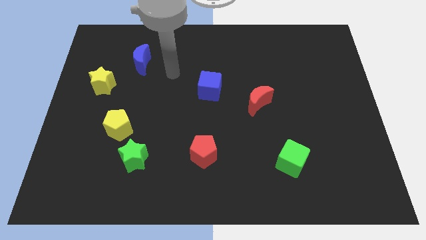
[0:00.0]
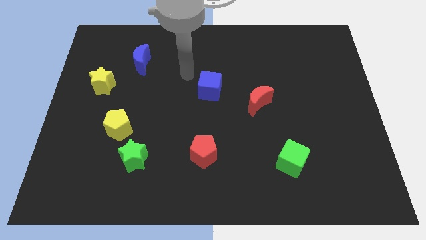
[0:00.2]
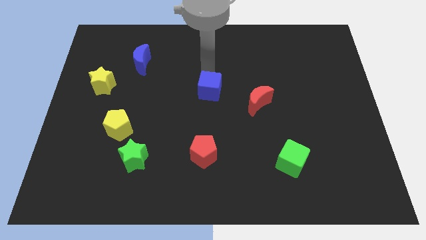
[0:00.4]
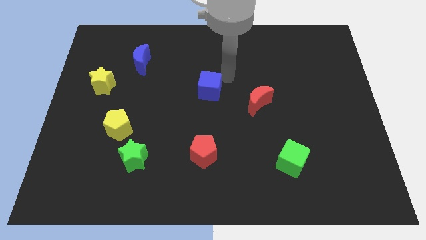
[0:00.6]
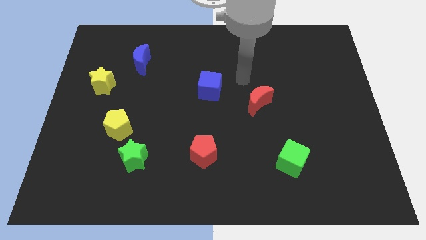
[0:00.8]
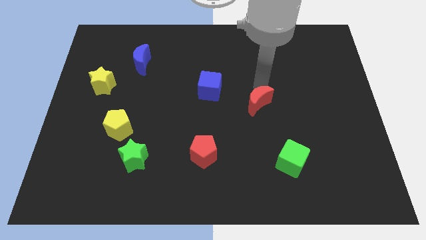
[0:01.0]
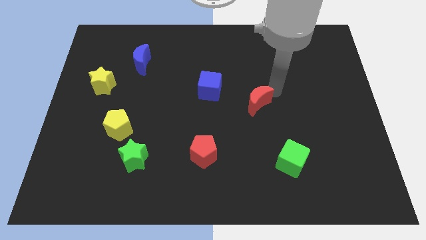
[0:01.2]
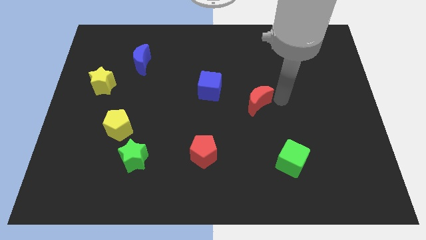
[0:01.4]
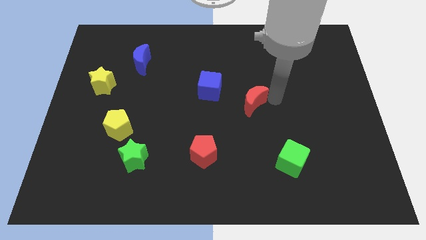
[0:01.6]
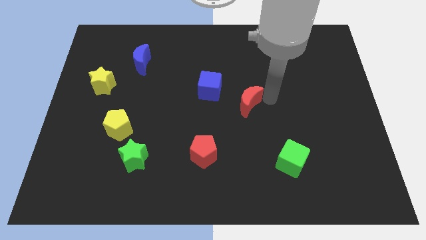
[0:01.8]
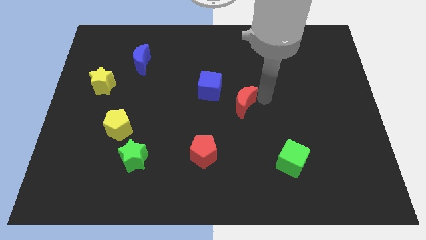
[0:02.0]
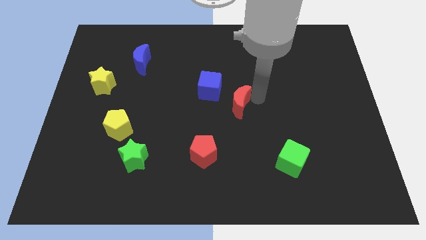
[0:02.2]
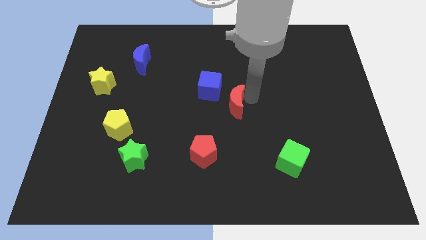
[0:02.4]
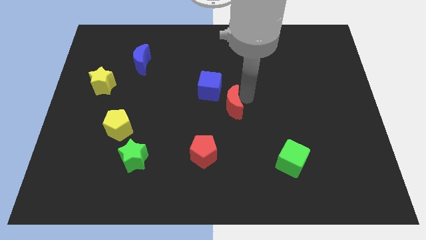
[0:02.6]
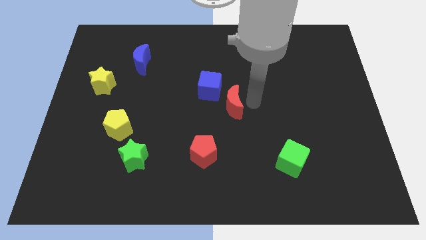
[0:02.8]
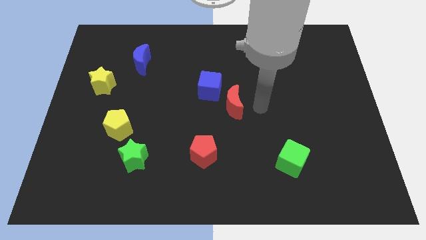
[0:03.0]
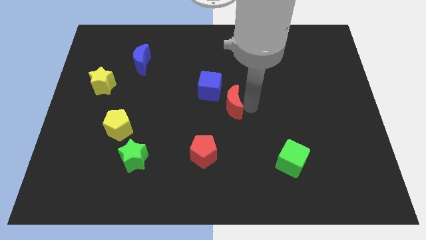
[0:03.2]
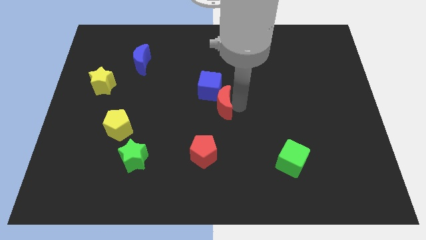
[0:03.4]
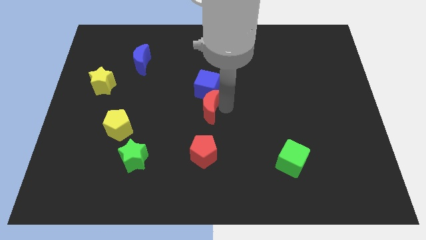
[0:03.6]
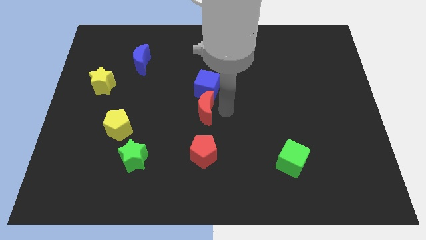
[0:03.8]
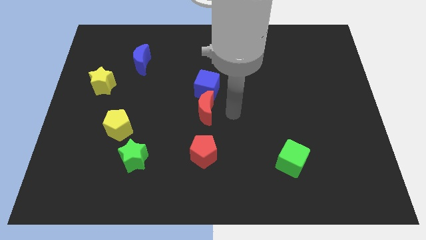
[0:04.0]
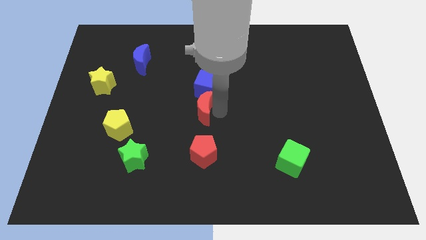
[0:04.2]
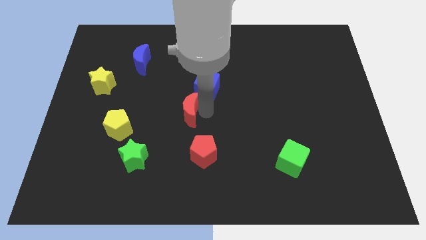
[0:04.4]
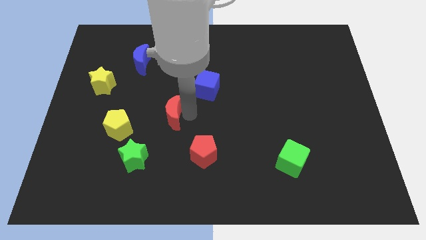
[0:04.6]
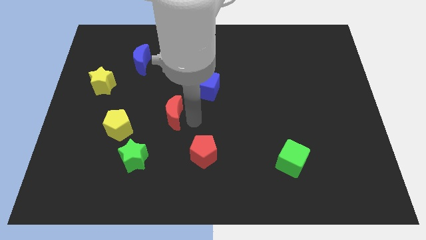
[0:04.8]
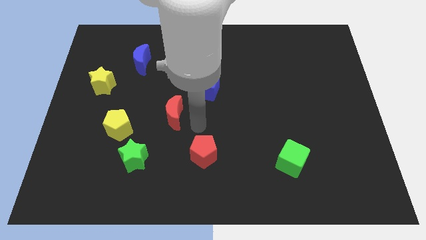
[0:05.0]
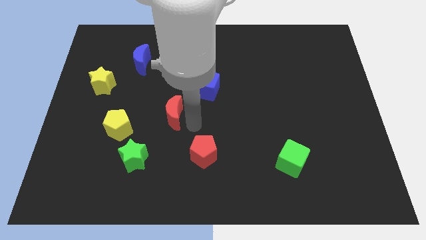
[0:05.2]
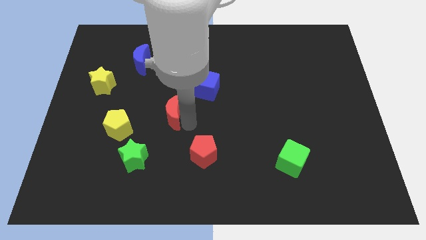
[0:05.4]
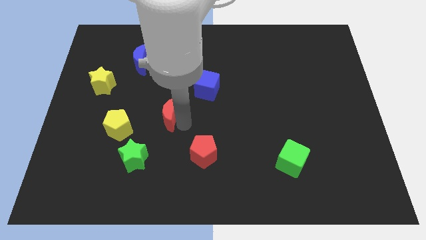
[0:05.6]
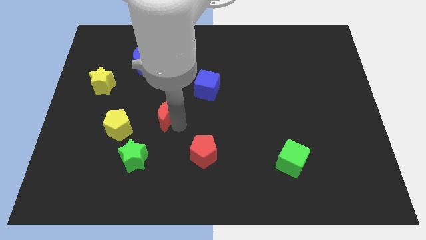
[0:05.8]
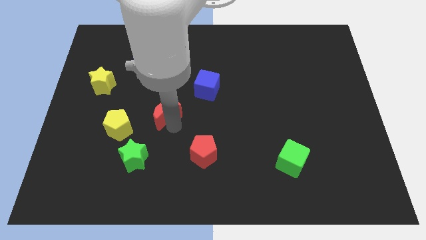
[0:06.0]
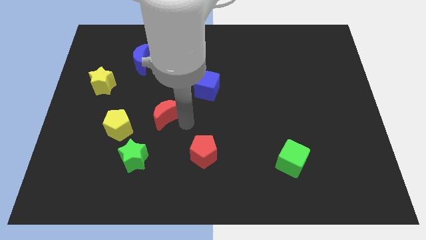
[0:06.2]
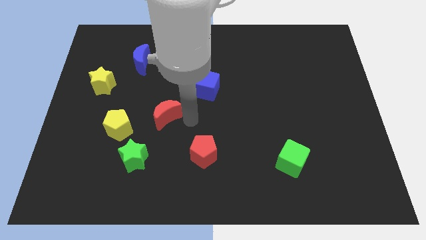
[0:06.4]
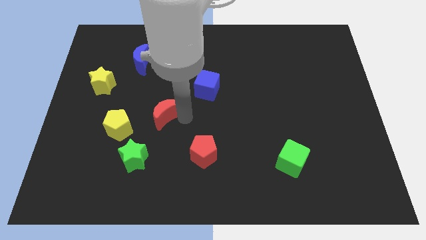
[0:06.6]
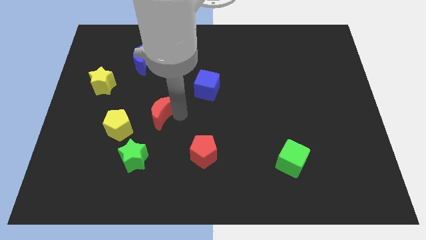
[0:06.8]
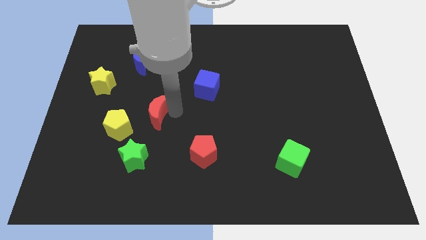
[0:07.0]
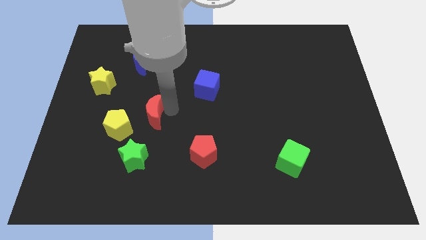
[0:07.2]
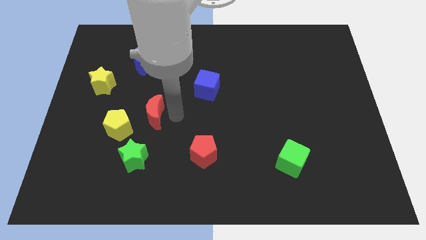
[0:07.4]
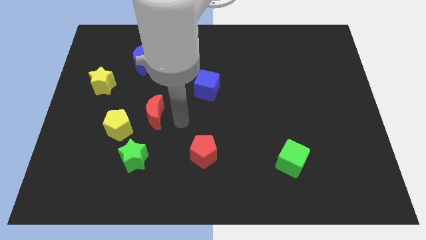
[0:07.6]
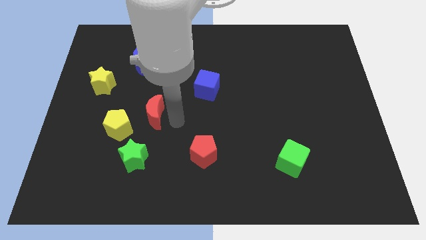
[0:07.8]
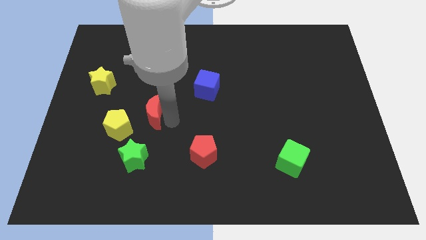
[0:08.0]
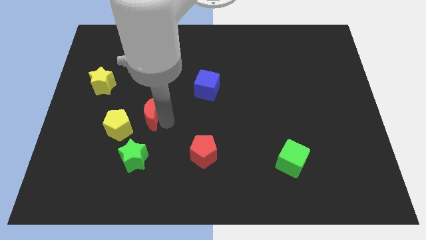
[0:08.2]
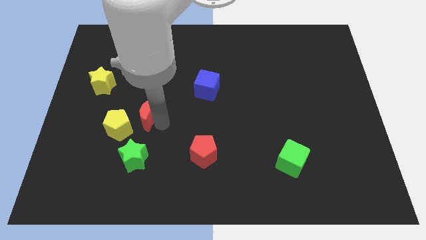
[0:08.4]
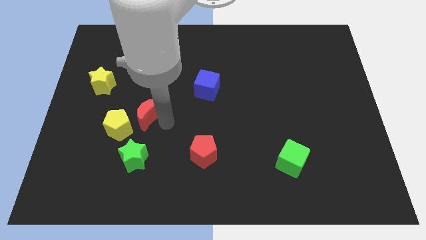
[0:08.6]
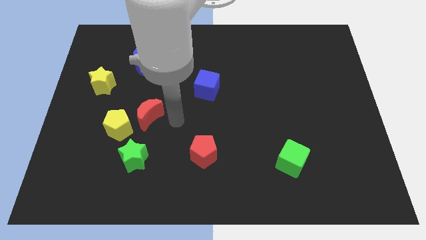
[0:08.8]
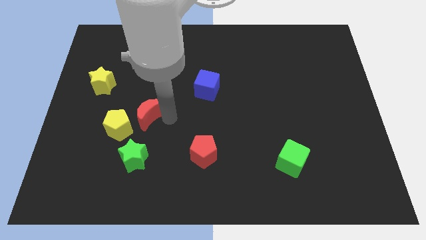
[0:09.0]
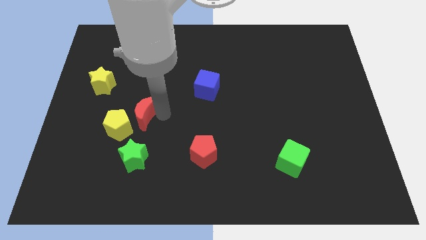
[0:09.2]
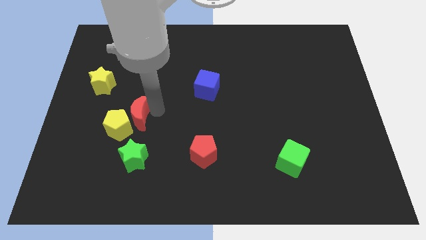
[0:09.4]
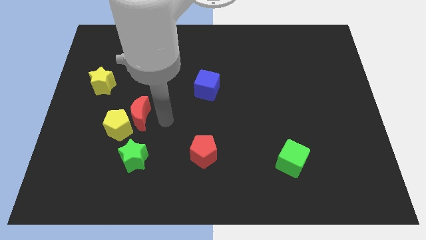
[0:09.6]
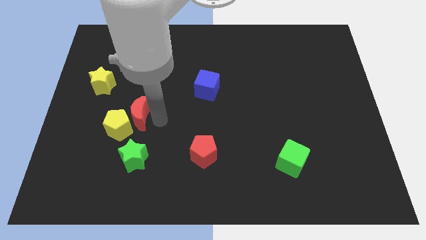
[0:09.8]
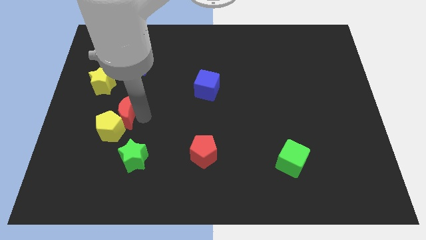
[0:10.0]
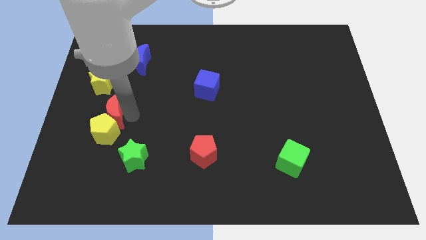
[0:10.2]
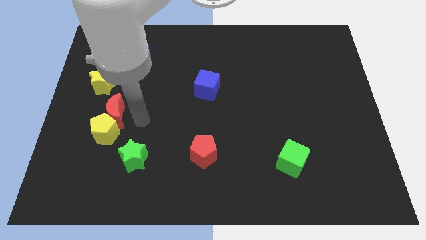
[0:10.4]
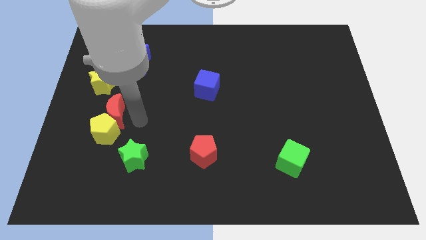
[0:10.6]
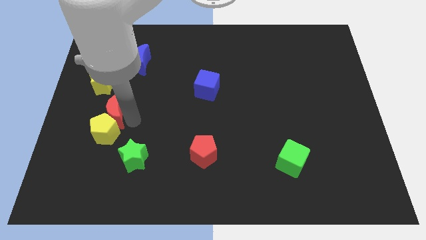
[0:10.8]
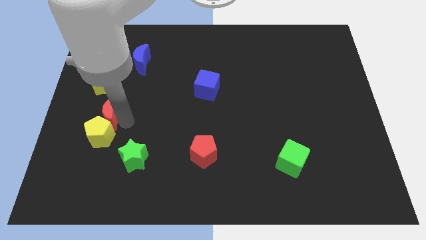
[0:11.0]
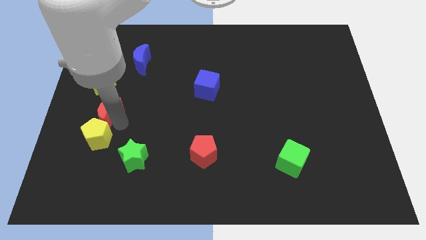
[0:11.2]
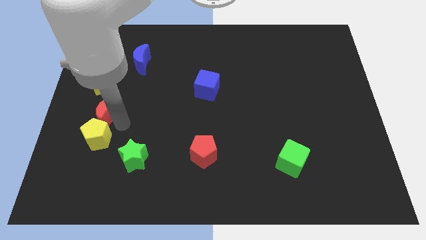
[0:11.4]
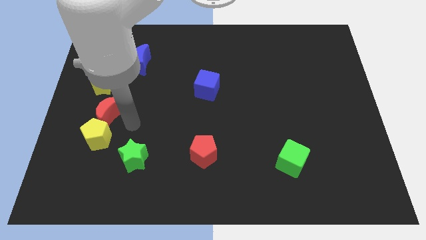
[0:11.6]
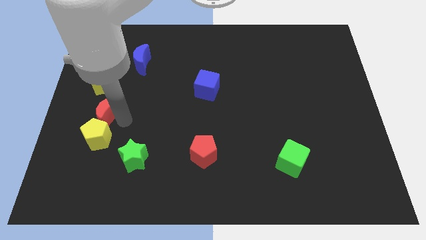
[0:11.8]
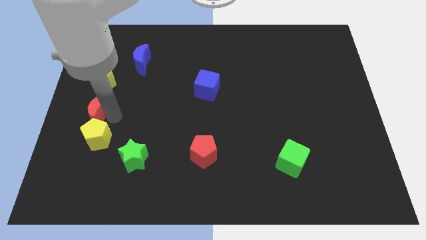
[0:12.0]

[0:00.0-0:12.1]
slide the red moon to the left side

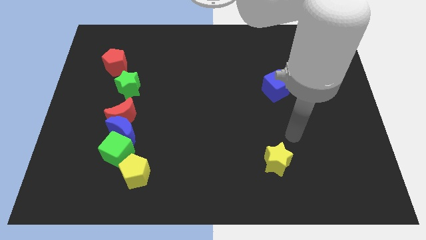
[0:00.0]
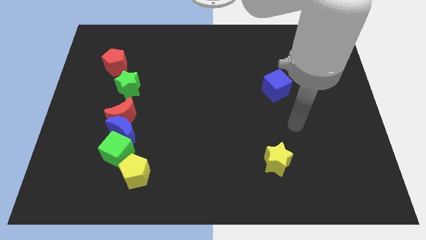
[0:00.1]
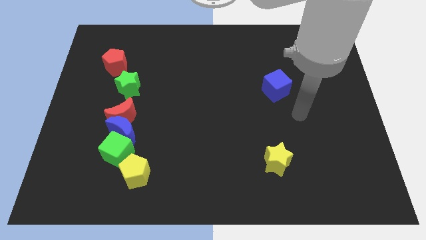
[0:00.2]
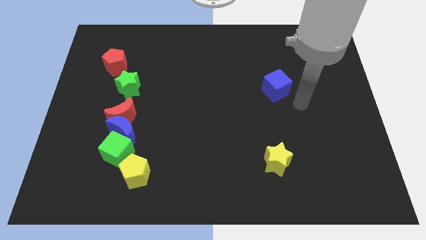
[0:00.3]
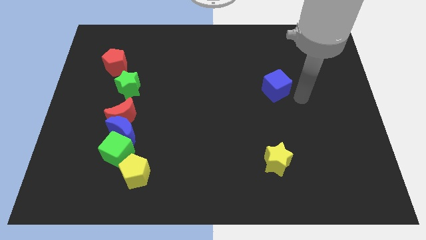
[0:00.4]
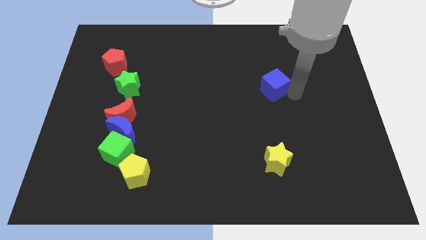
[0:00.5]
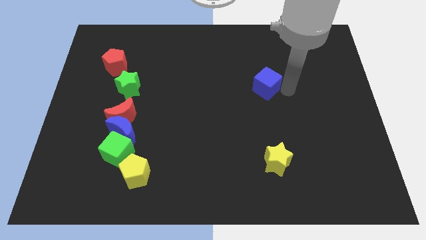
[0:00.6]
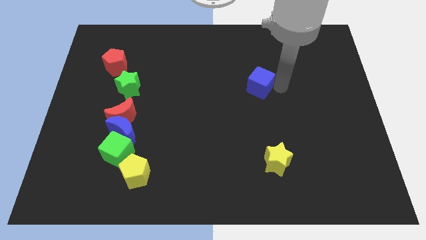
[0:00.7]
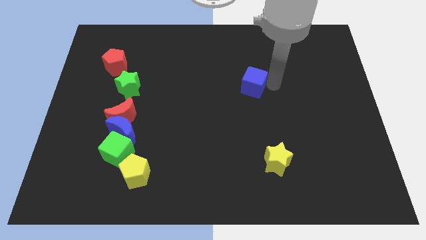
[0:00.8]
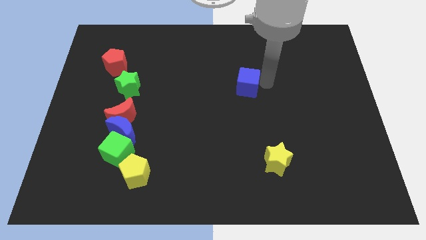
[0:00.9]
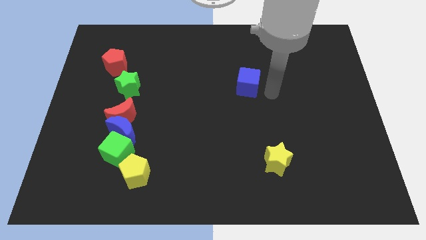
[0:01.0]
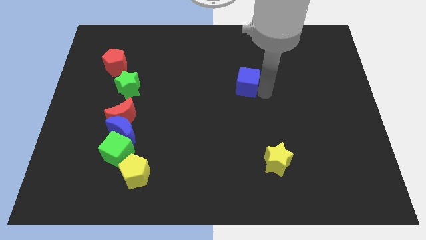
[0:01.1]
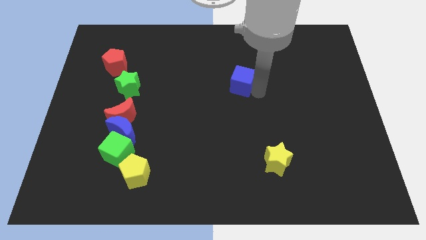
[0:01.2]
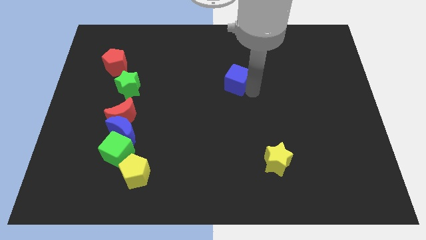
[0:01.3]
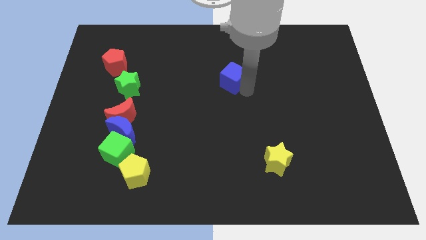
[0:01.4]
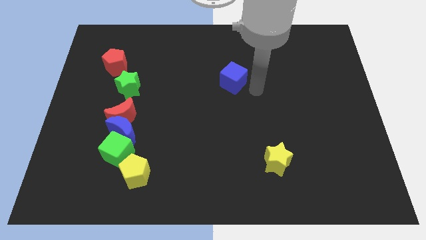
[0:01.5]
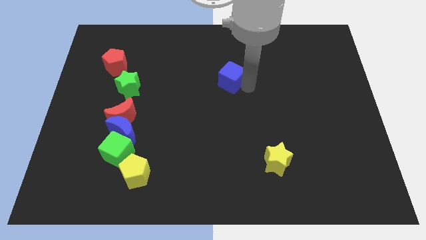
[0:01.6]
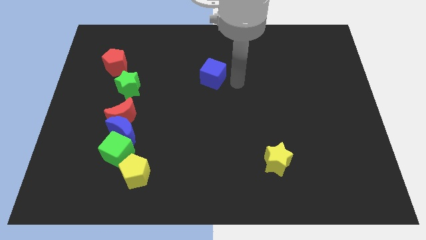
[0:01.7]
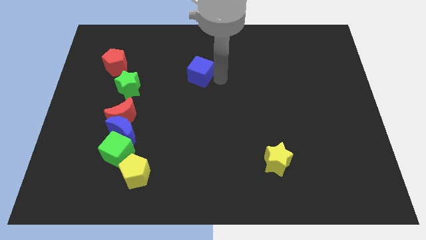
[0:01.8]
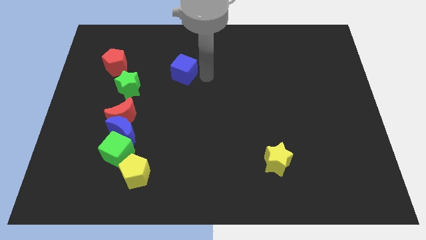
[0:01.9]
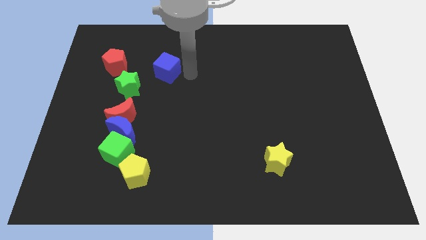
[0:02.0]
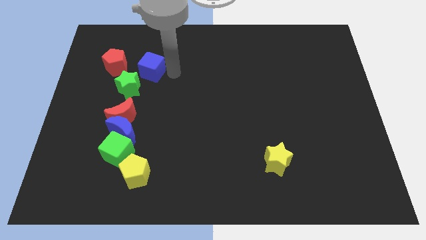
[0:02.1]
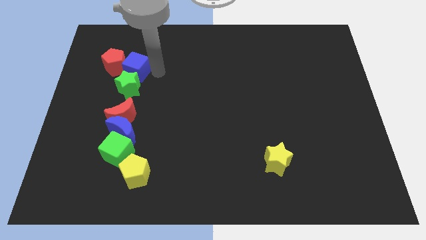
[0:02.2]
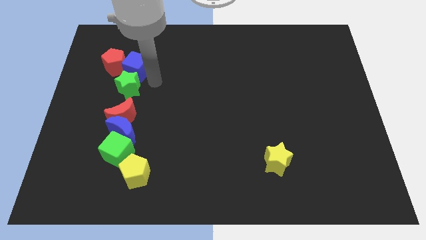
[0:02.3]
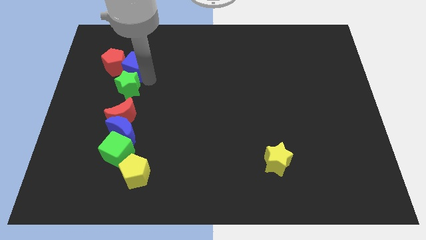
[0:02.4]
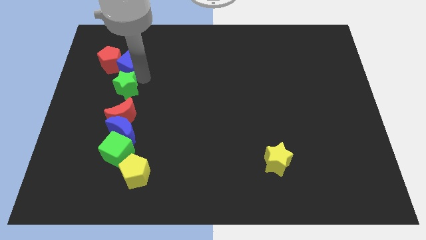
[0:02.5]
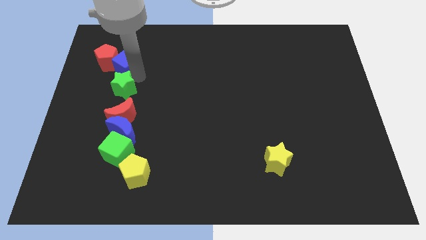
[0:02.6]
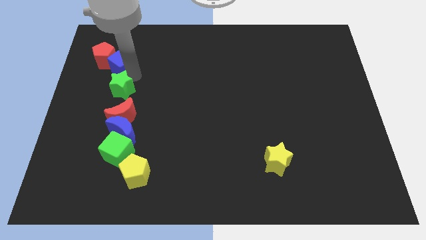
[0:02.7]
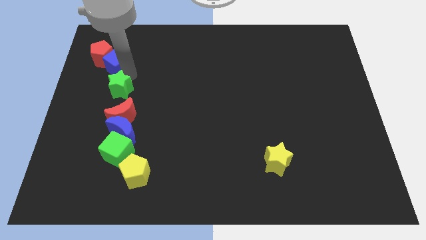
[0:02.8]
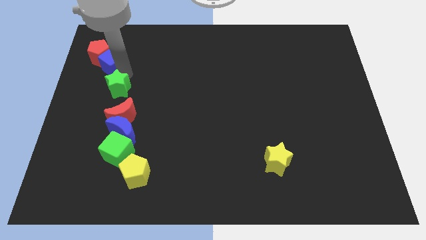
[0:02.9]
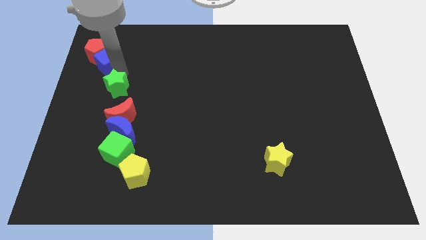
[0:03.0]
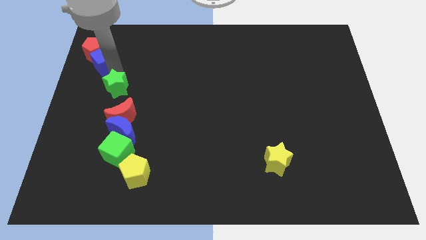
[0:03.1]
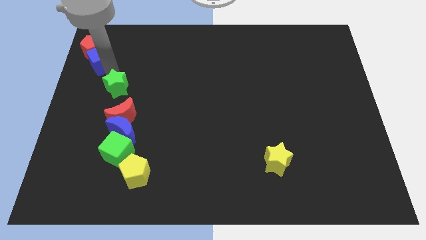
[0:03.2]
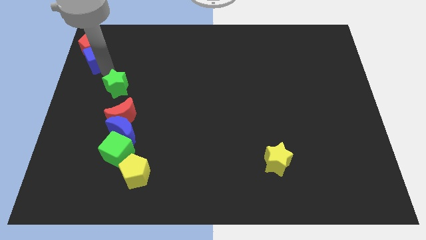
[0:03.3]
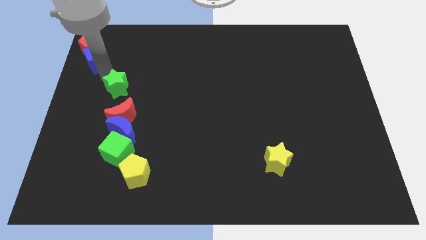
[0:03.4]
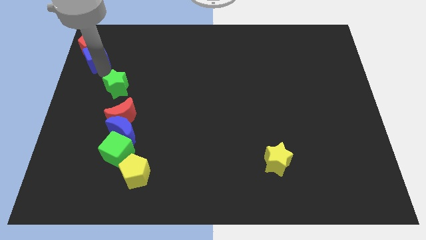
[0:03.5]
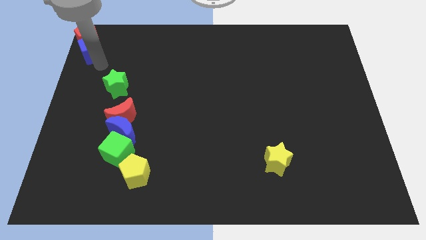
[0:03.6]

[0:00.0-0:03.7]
push the blue cube to the top left of the board
